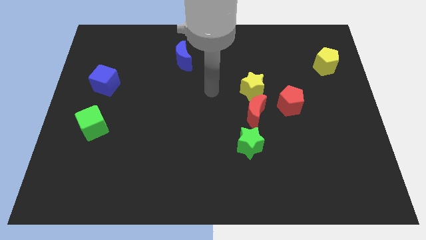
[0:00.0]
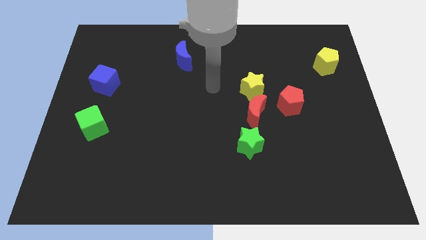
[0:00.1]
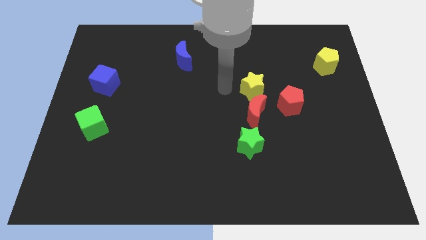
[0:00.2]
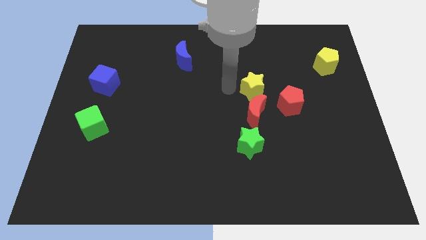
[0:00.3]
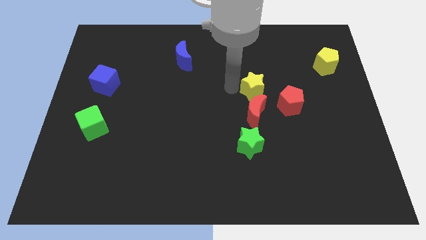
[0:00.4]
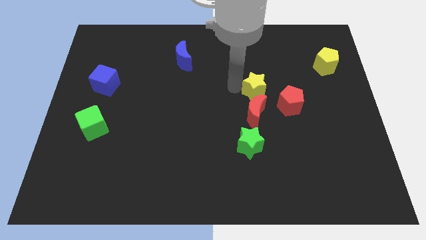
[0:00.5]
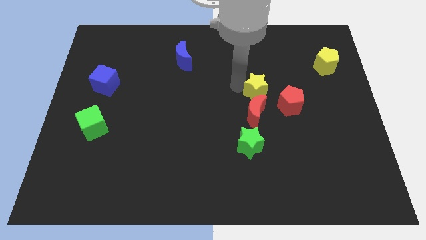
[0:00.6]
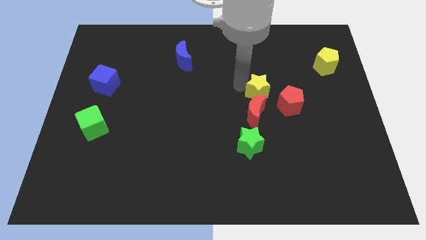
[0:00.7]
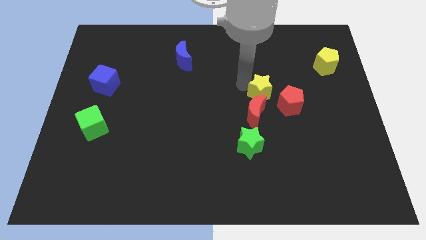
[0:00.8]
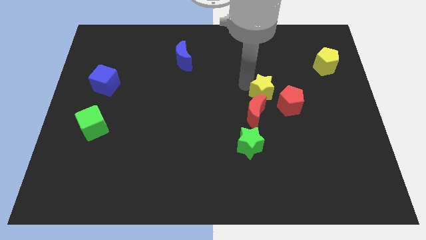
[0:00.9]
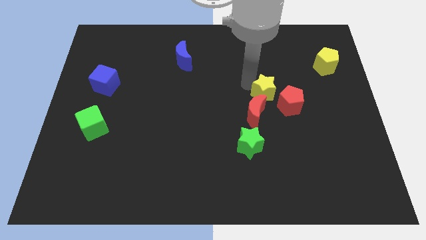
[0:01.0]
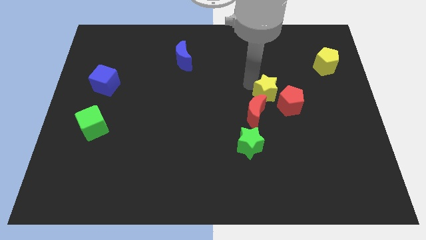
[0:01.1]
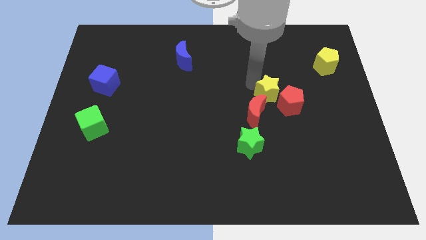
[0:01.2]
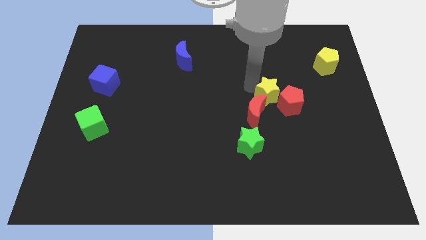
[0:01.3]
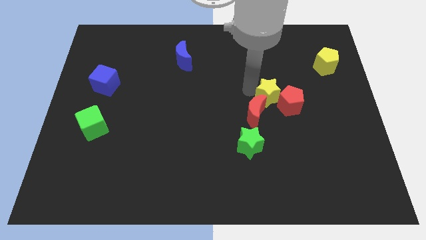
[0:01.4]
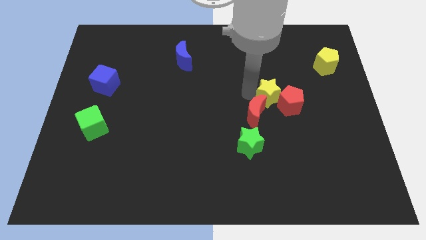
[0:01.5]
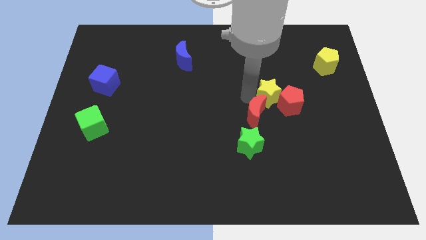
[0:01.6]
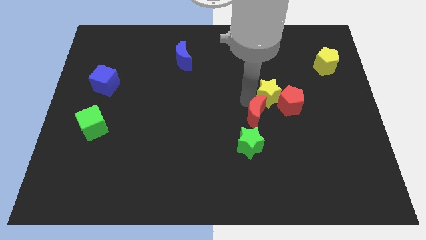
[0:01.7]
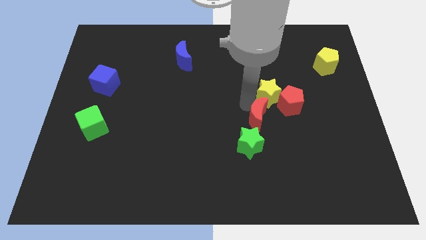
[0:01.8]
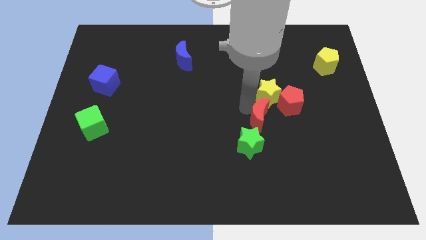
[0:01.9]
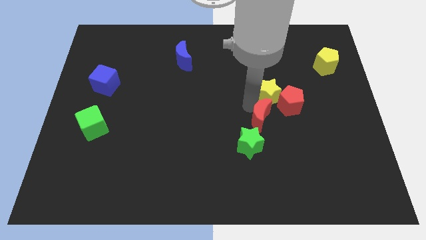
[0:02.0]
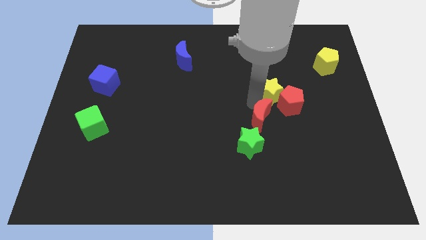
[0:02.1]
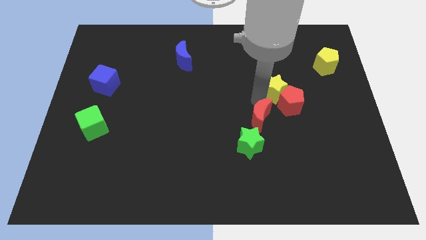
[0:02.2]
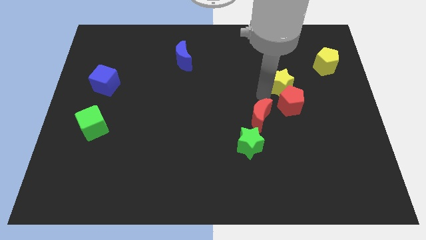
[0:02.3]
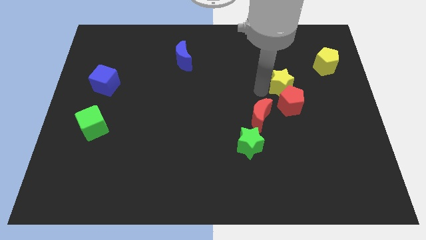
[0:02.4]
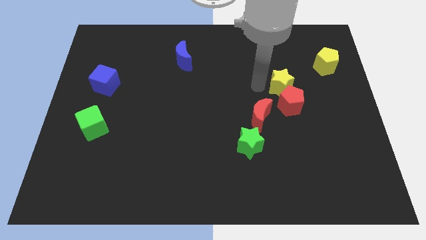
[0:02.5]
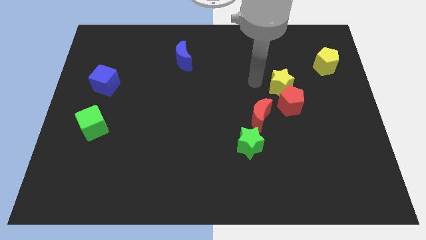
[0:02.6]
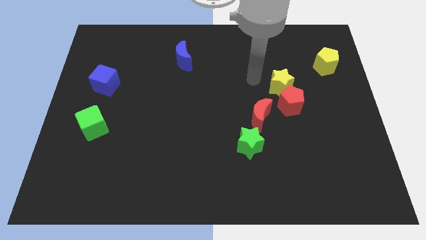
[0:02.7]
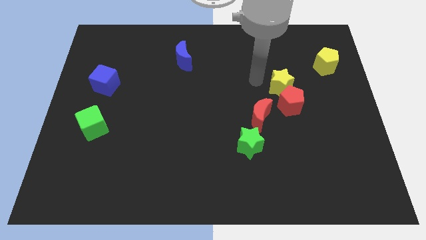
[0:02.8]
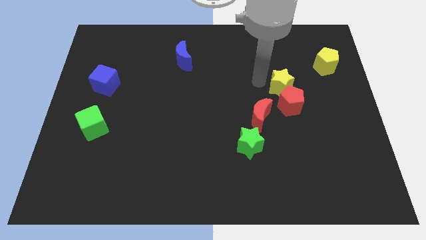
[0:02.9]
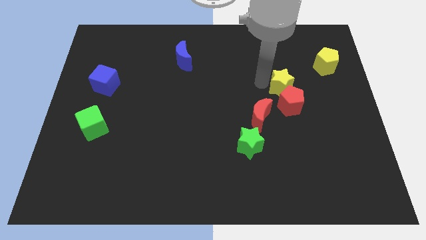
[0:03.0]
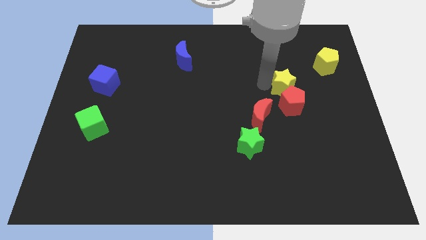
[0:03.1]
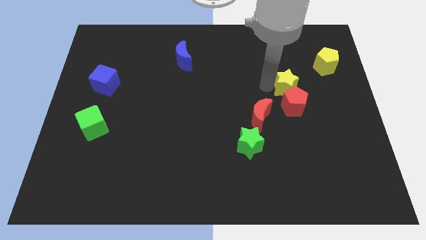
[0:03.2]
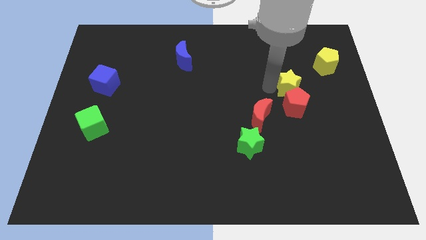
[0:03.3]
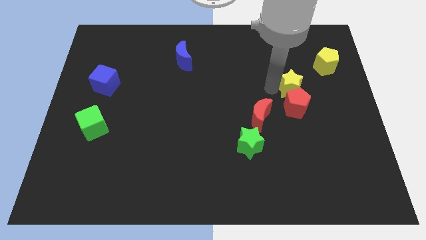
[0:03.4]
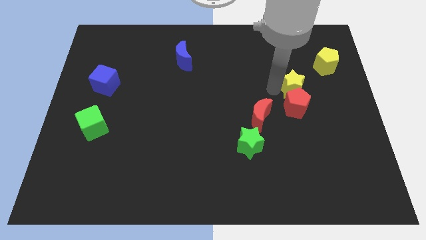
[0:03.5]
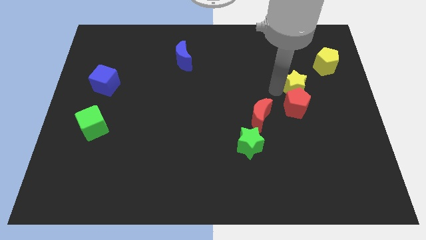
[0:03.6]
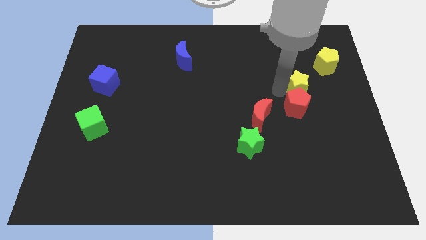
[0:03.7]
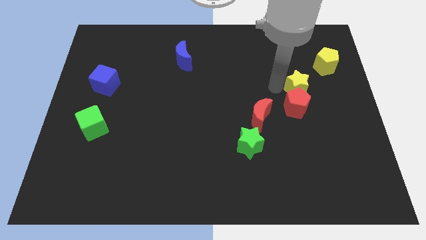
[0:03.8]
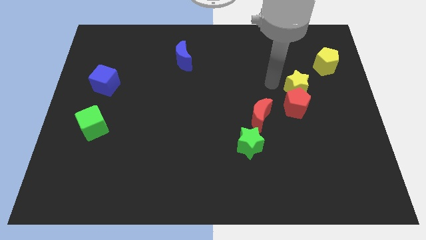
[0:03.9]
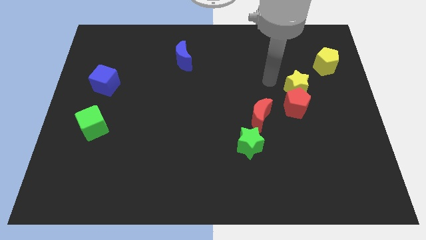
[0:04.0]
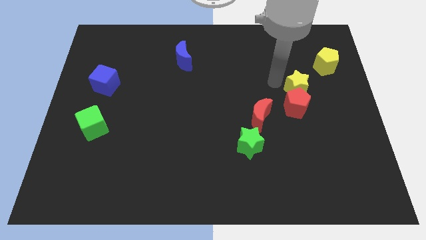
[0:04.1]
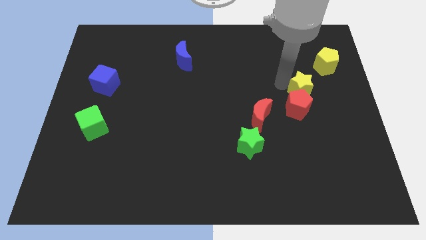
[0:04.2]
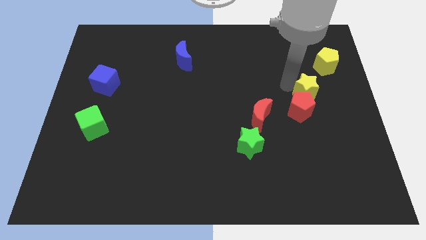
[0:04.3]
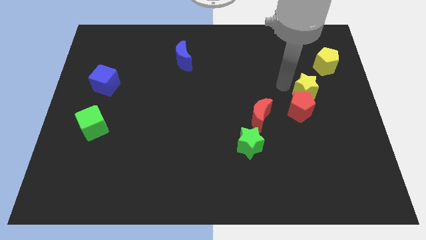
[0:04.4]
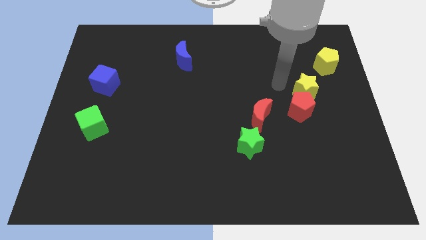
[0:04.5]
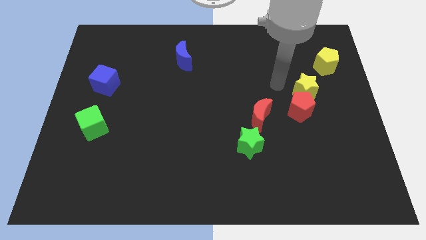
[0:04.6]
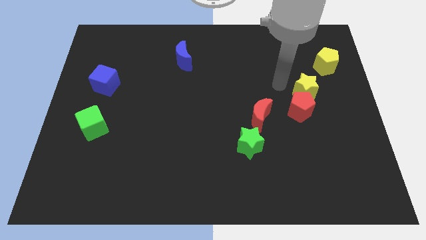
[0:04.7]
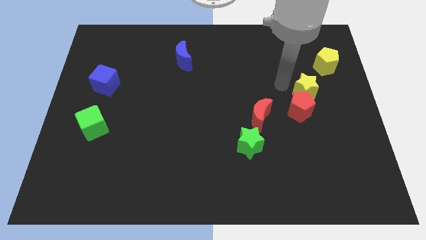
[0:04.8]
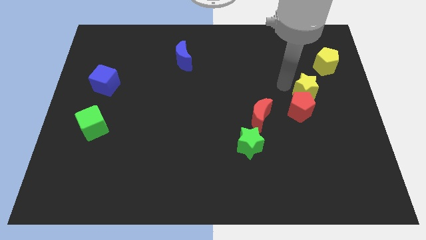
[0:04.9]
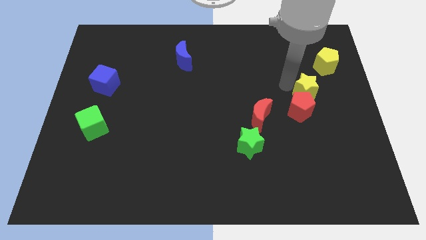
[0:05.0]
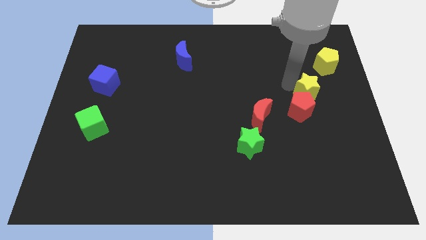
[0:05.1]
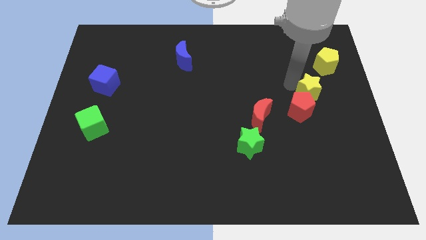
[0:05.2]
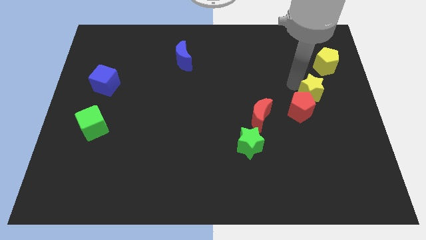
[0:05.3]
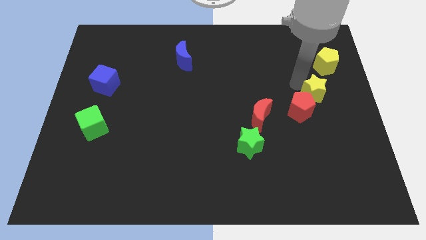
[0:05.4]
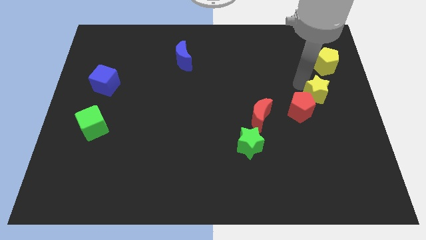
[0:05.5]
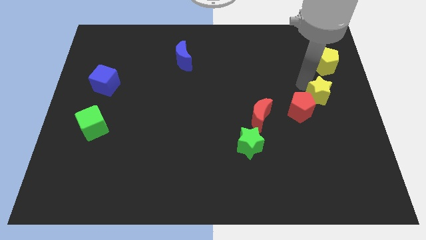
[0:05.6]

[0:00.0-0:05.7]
put the yellow star to the right side of the board

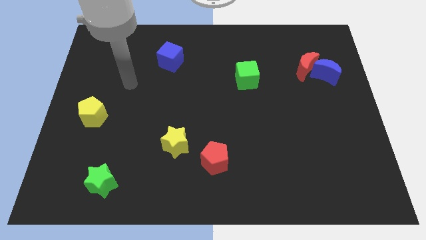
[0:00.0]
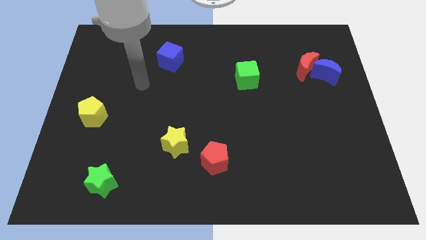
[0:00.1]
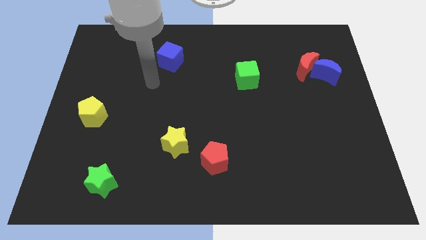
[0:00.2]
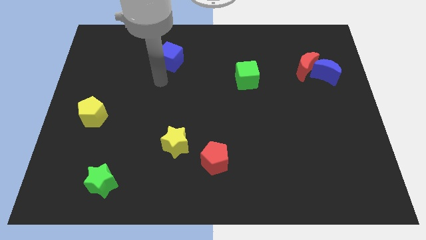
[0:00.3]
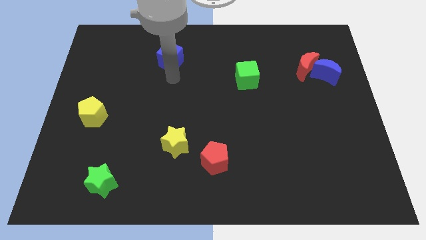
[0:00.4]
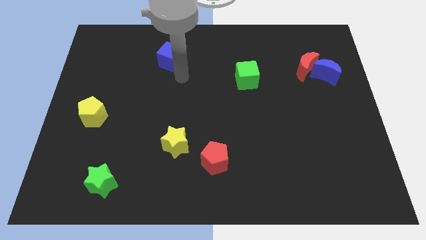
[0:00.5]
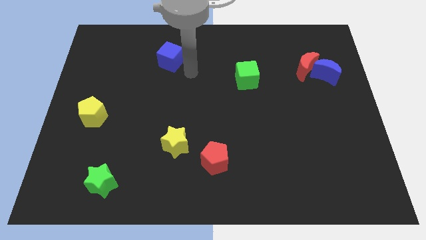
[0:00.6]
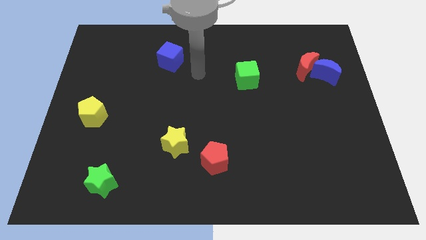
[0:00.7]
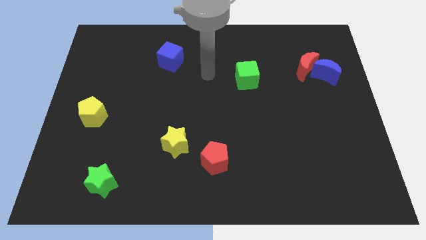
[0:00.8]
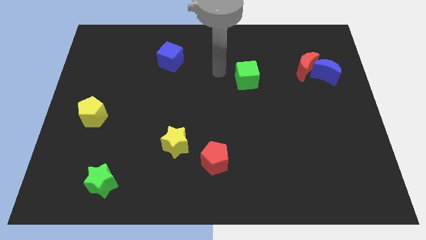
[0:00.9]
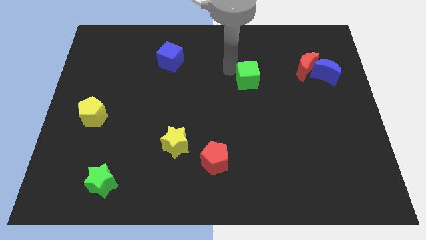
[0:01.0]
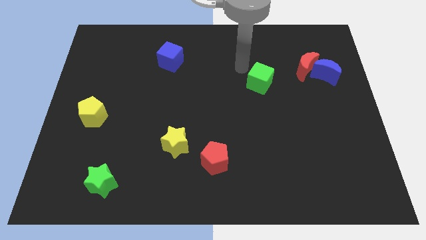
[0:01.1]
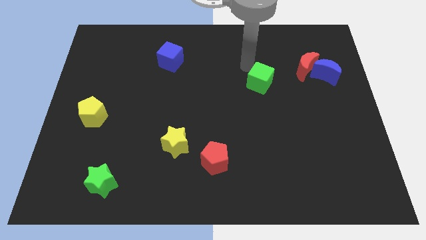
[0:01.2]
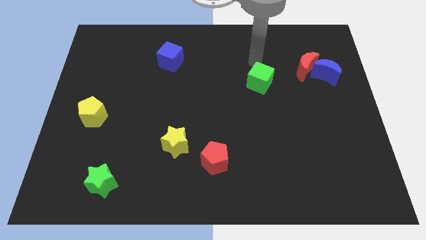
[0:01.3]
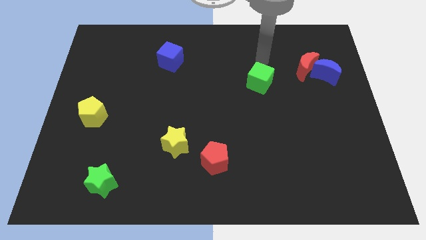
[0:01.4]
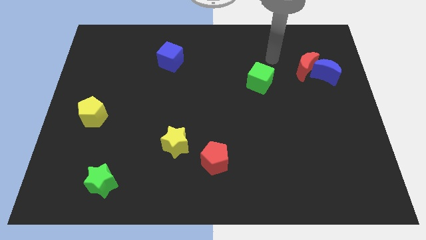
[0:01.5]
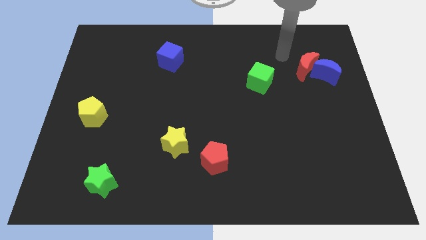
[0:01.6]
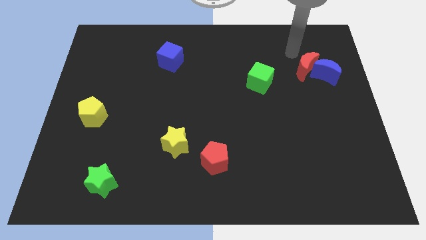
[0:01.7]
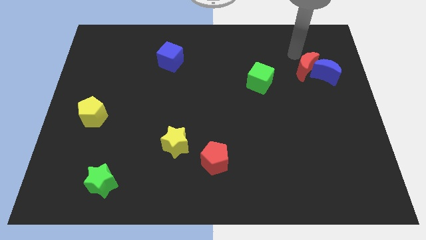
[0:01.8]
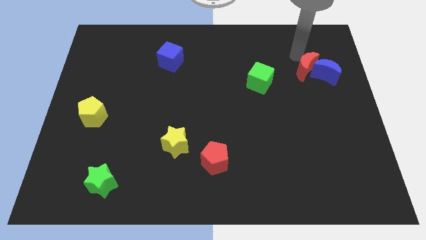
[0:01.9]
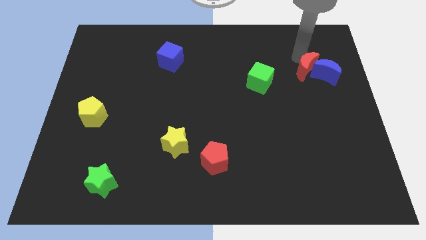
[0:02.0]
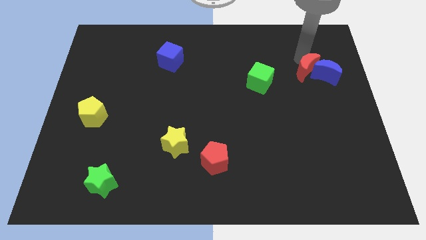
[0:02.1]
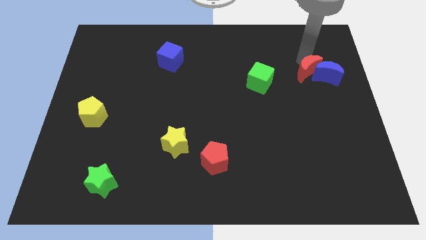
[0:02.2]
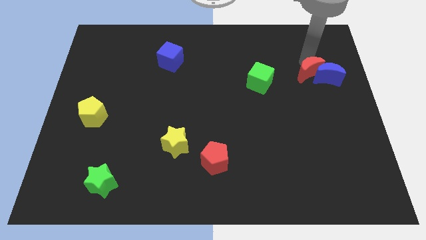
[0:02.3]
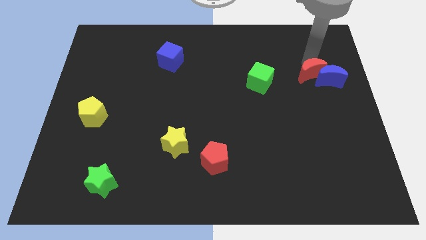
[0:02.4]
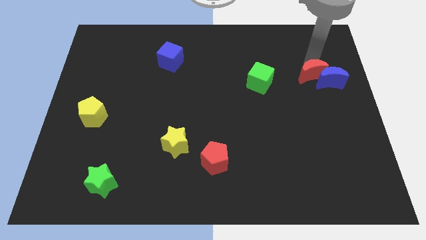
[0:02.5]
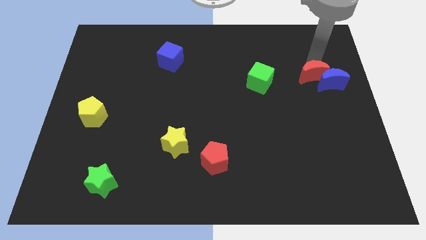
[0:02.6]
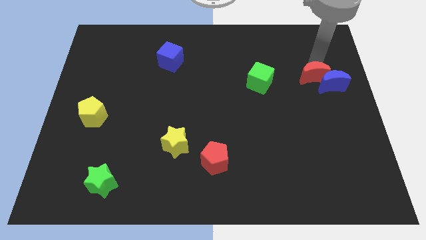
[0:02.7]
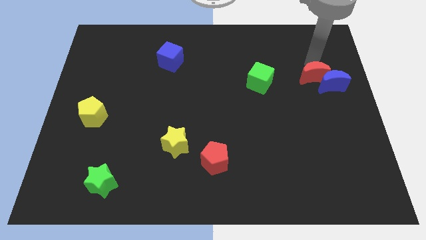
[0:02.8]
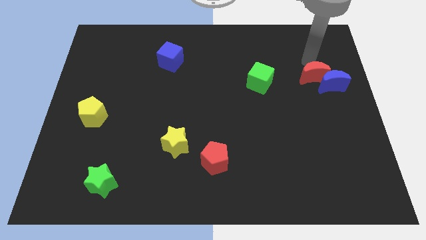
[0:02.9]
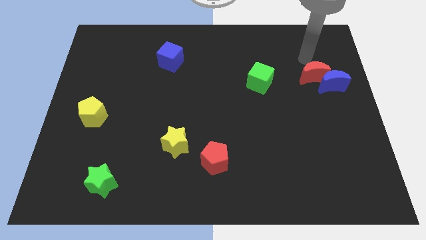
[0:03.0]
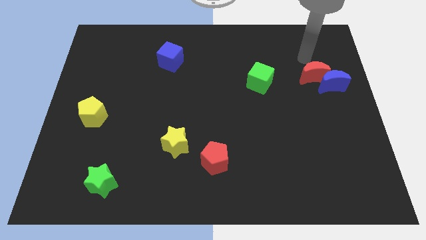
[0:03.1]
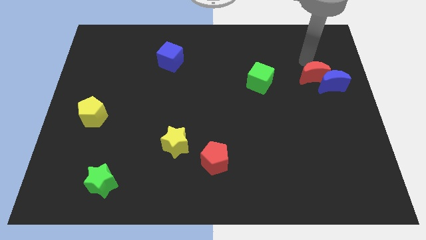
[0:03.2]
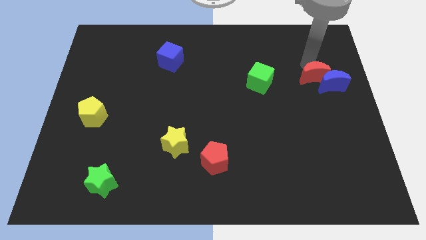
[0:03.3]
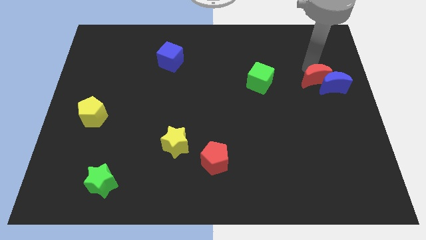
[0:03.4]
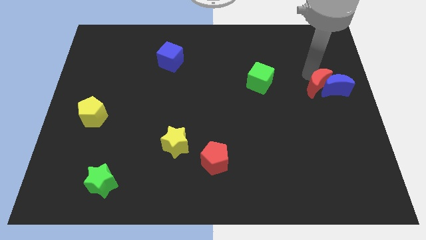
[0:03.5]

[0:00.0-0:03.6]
push the red moon to the right side of the board
